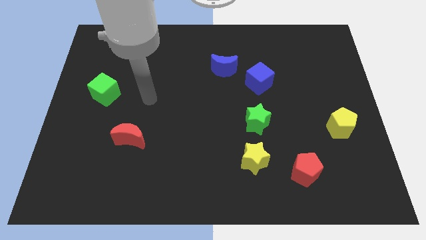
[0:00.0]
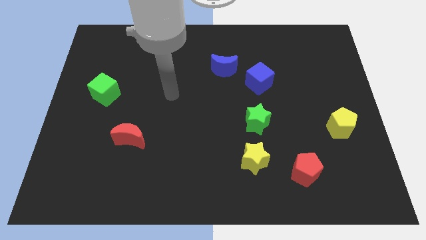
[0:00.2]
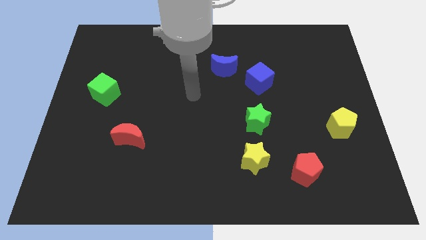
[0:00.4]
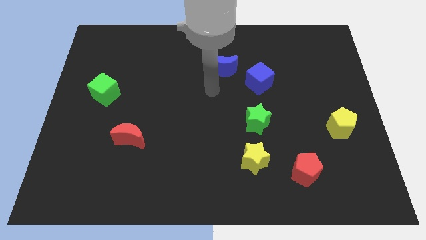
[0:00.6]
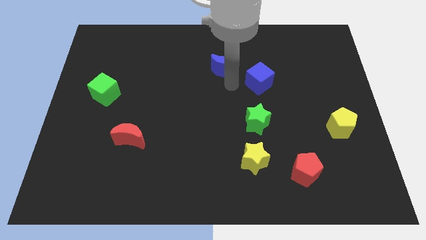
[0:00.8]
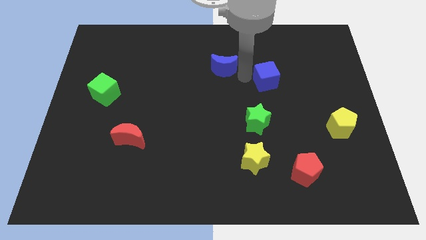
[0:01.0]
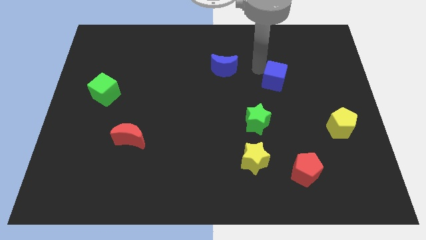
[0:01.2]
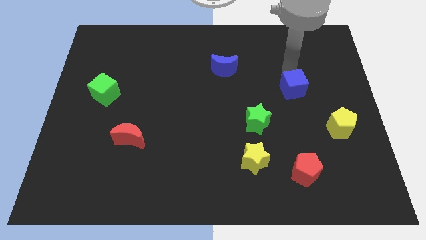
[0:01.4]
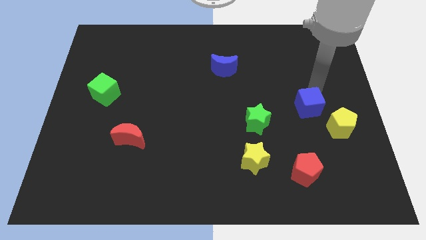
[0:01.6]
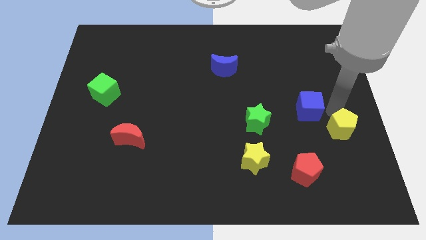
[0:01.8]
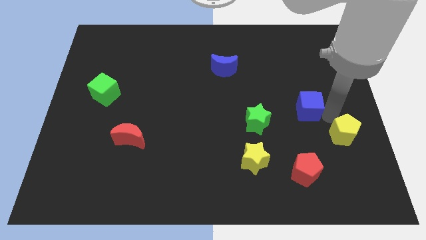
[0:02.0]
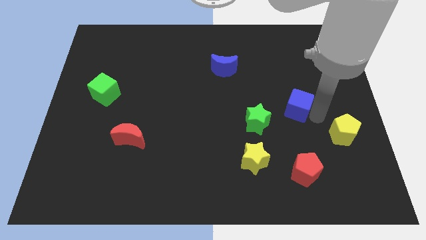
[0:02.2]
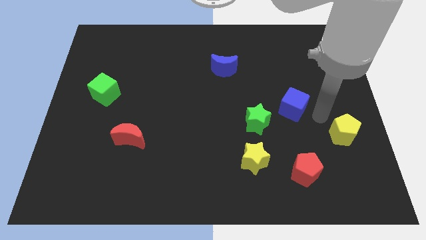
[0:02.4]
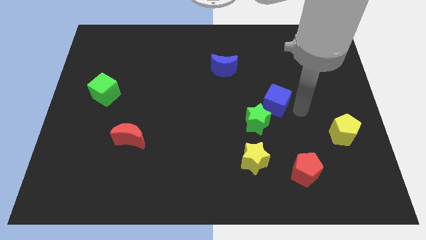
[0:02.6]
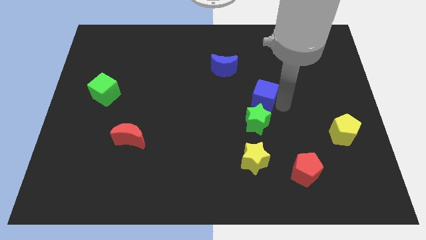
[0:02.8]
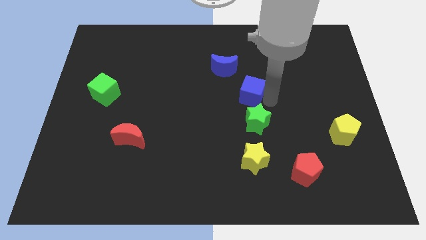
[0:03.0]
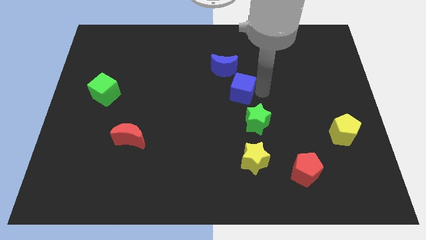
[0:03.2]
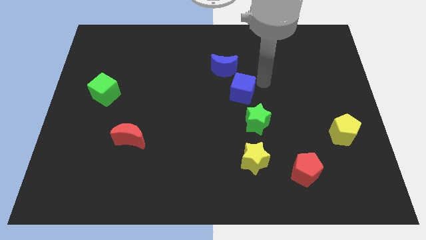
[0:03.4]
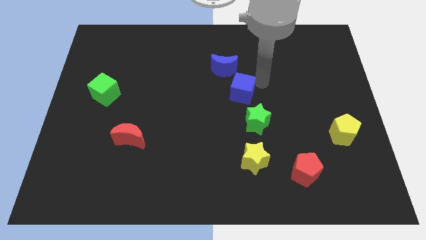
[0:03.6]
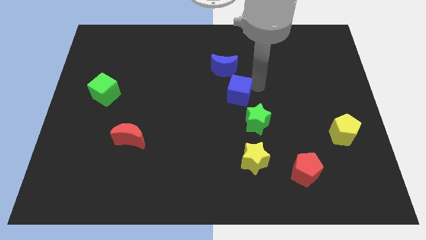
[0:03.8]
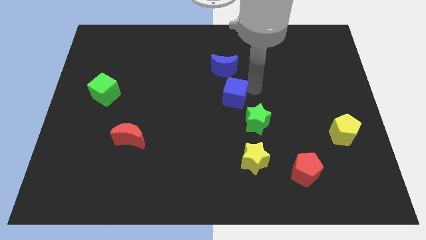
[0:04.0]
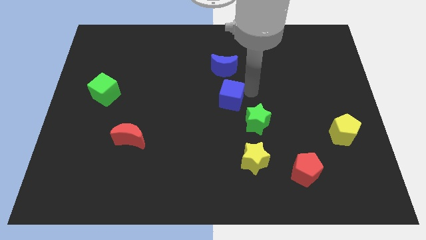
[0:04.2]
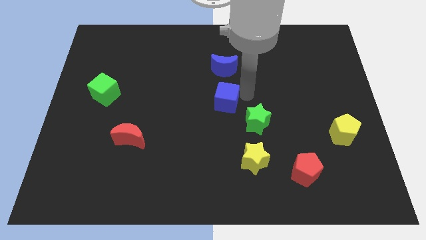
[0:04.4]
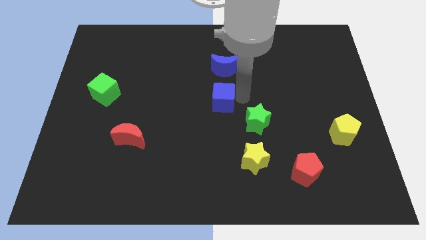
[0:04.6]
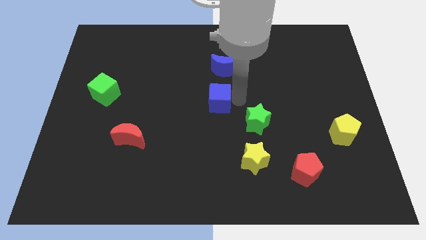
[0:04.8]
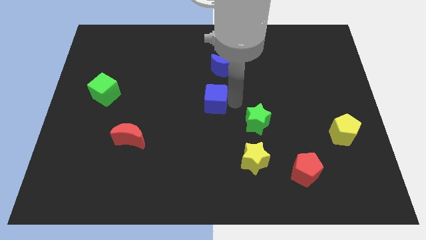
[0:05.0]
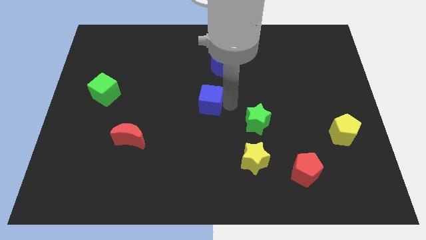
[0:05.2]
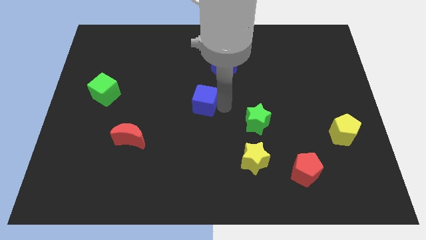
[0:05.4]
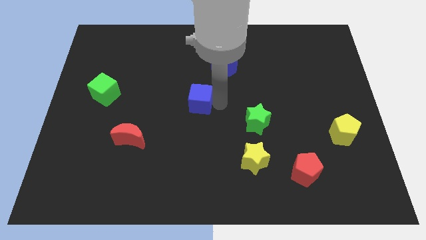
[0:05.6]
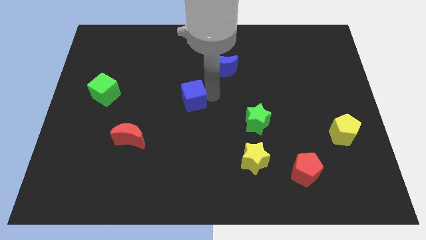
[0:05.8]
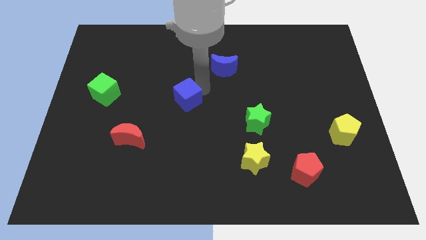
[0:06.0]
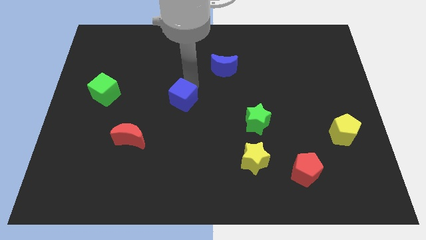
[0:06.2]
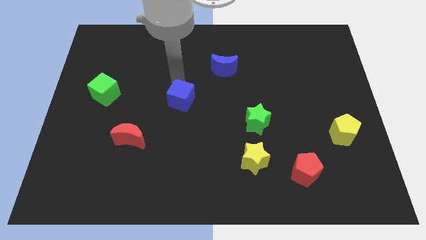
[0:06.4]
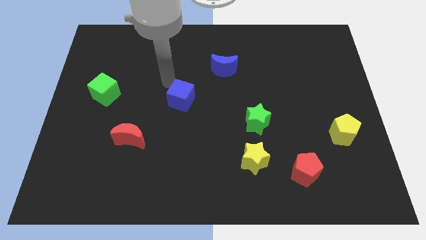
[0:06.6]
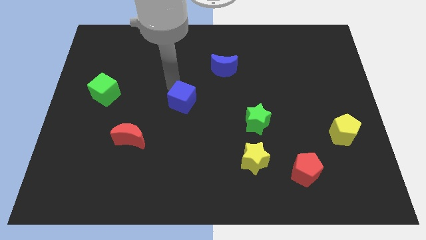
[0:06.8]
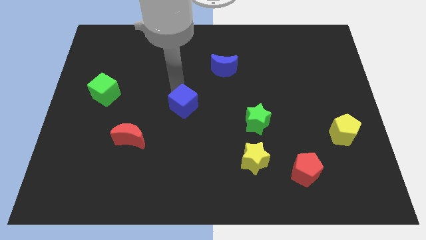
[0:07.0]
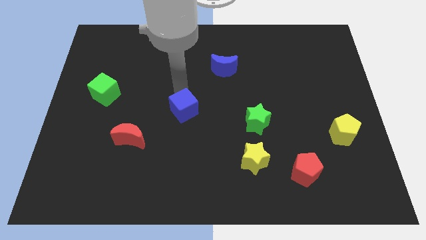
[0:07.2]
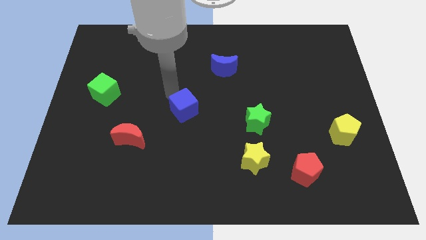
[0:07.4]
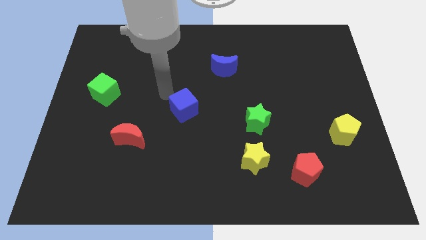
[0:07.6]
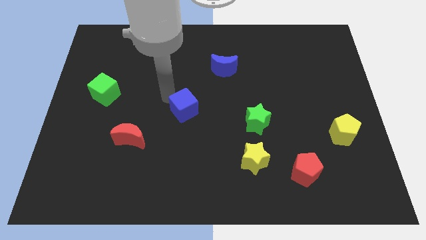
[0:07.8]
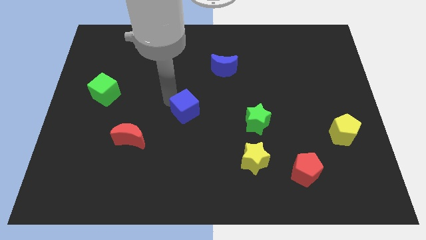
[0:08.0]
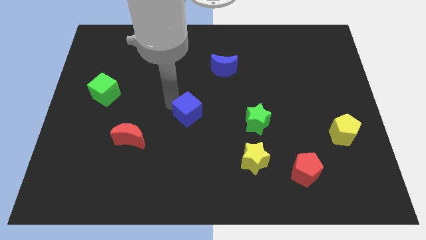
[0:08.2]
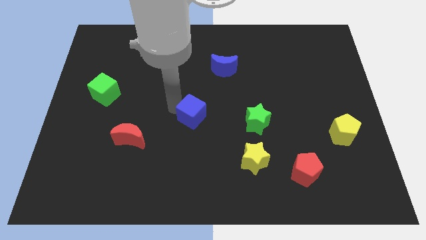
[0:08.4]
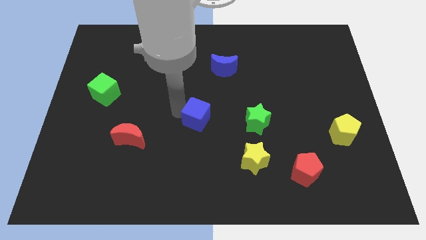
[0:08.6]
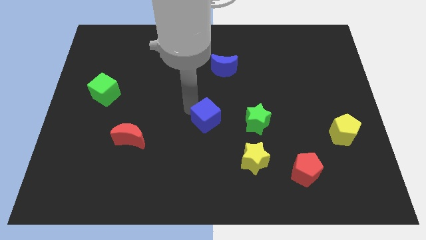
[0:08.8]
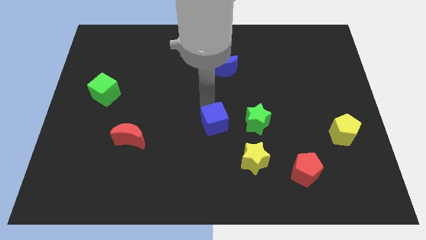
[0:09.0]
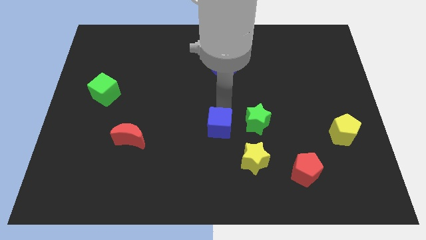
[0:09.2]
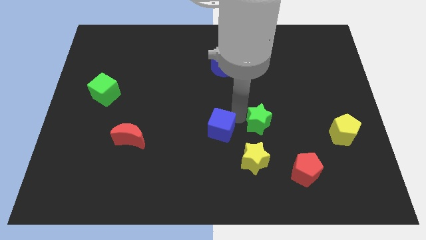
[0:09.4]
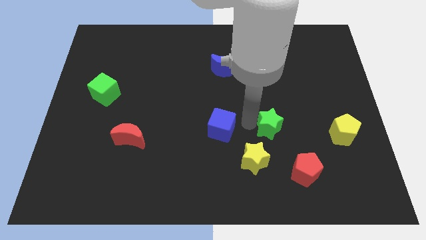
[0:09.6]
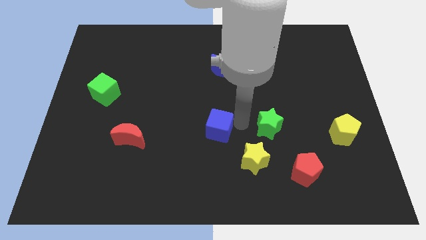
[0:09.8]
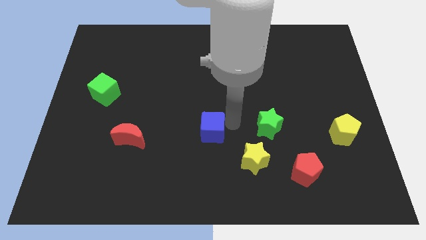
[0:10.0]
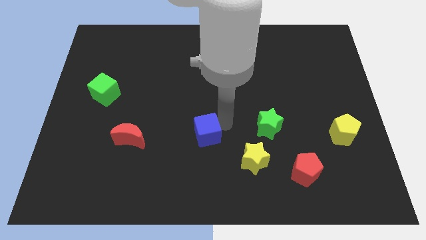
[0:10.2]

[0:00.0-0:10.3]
move the blue cube down and then to the left

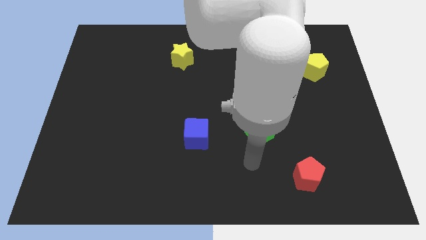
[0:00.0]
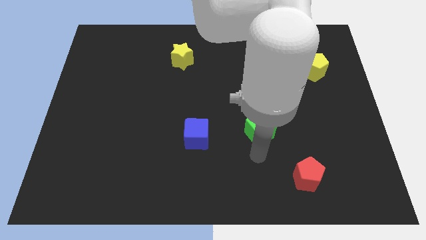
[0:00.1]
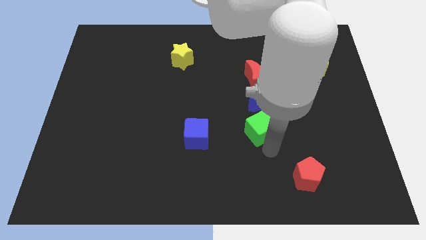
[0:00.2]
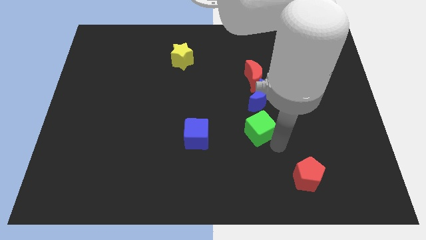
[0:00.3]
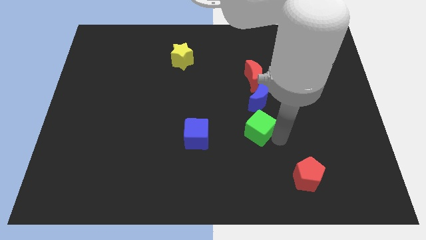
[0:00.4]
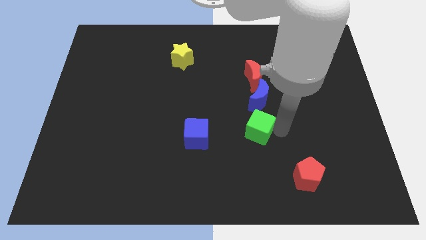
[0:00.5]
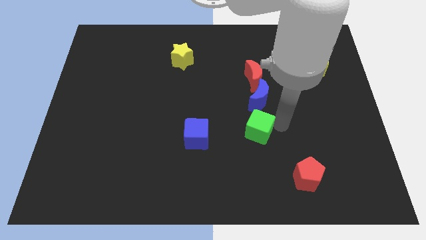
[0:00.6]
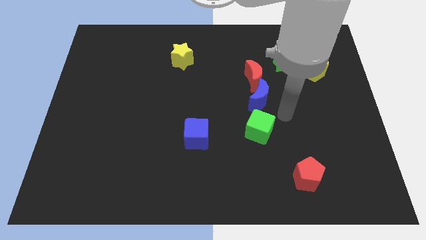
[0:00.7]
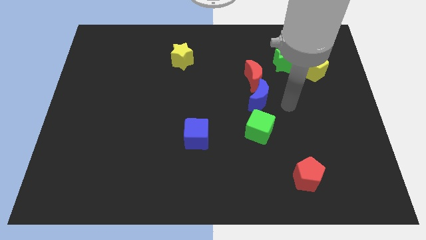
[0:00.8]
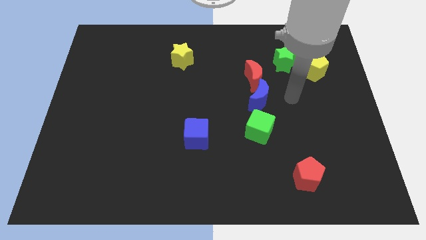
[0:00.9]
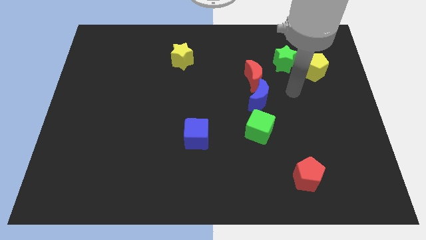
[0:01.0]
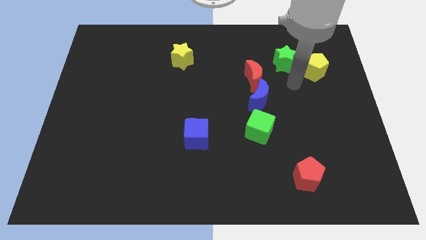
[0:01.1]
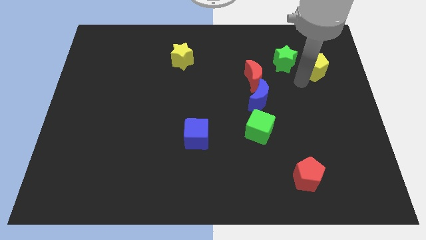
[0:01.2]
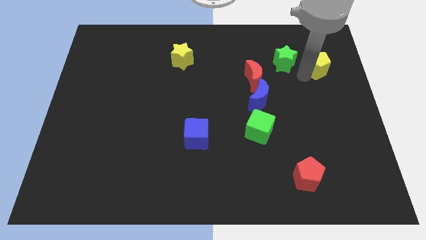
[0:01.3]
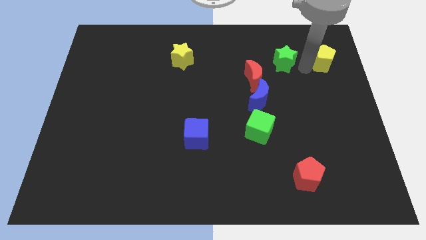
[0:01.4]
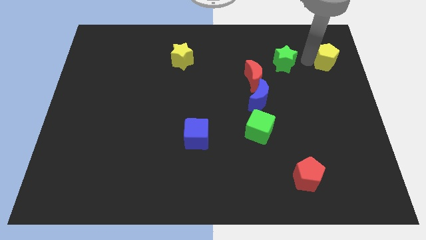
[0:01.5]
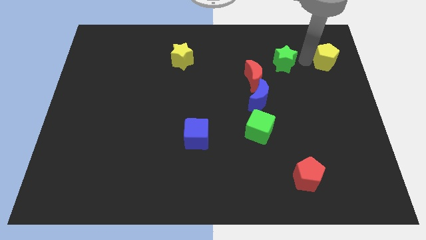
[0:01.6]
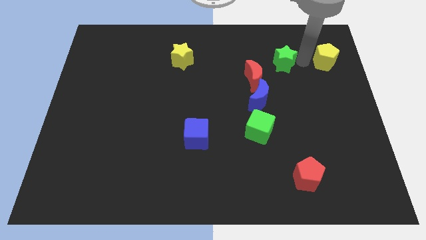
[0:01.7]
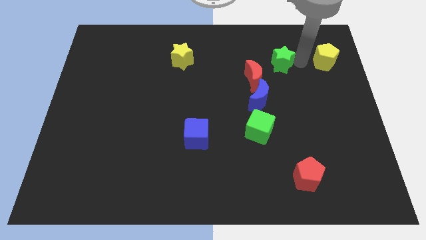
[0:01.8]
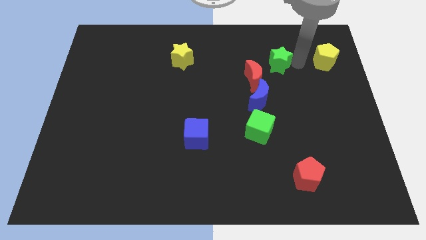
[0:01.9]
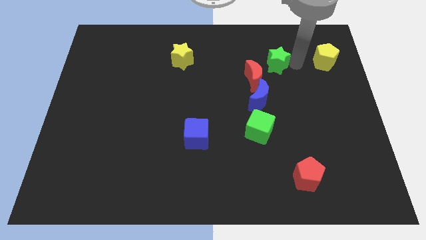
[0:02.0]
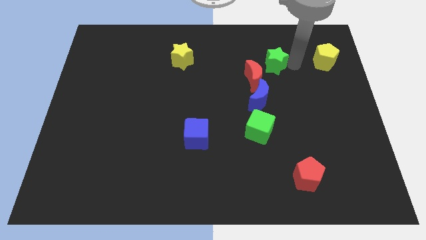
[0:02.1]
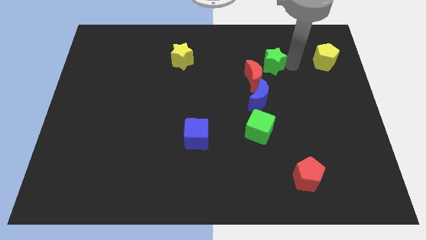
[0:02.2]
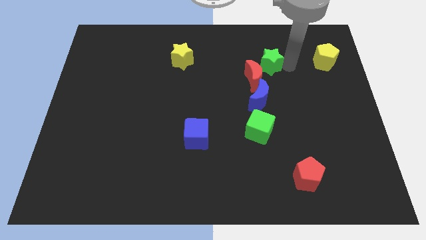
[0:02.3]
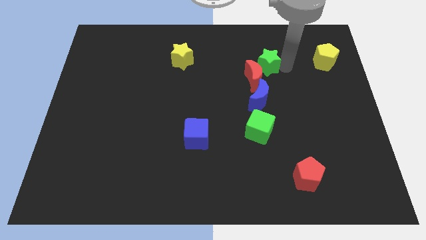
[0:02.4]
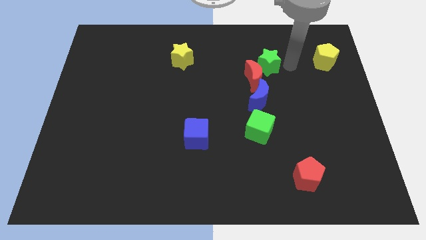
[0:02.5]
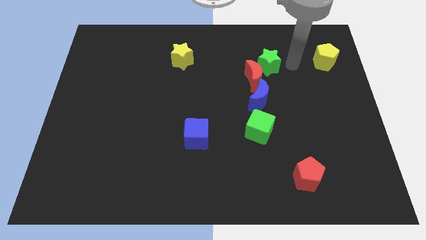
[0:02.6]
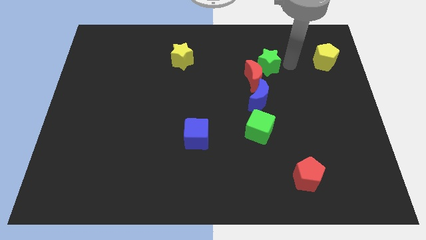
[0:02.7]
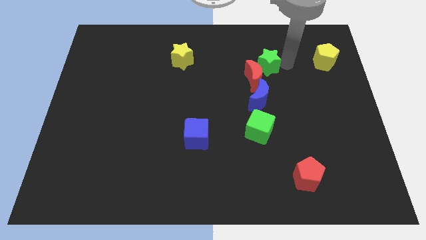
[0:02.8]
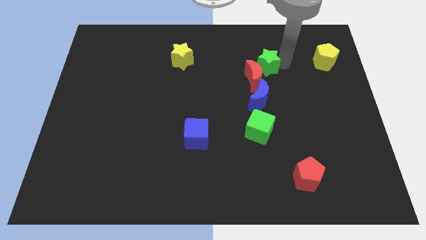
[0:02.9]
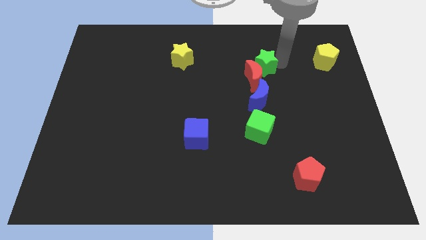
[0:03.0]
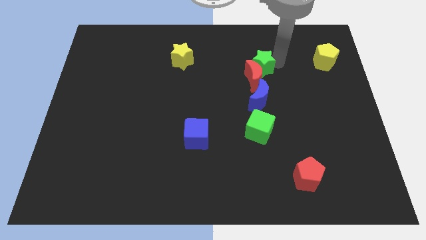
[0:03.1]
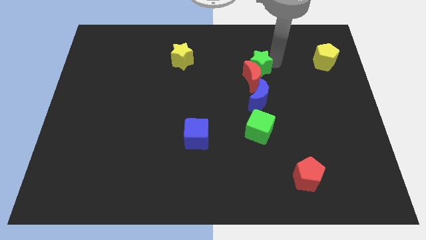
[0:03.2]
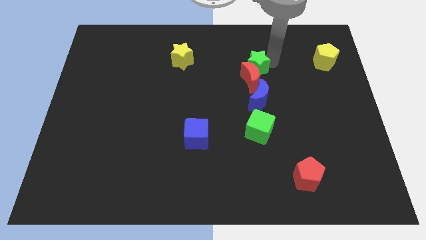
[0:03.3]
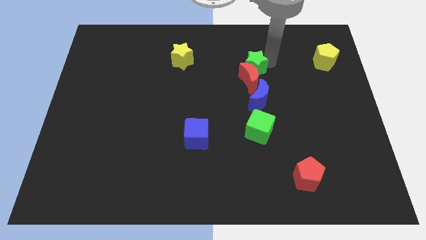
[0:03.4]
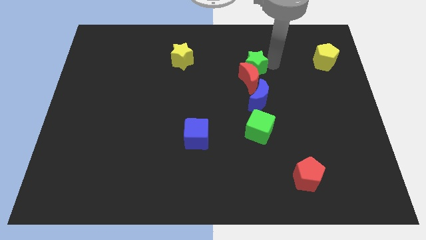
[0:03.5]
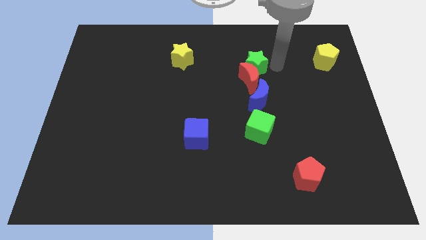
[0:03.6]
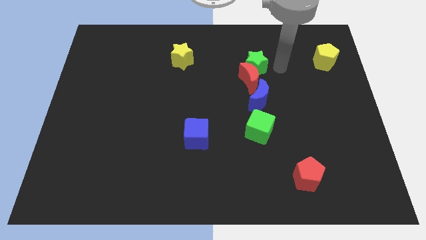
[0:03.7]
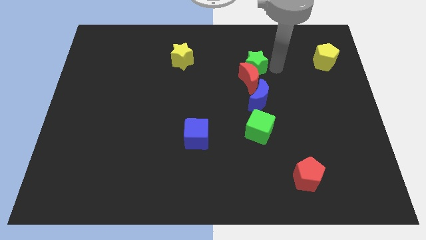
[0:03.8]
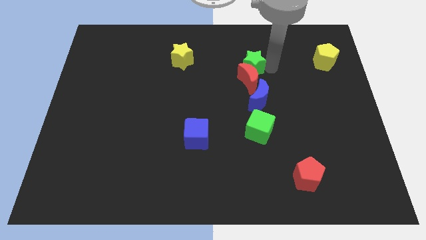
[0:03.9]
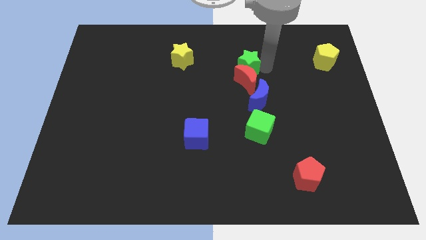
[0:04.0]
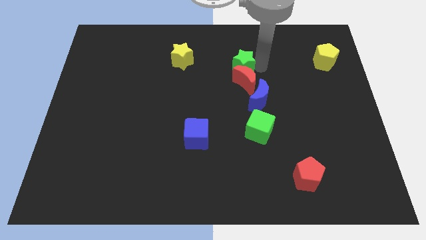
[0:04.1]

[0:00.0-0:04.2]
move the green star diagonally downwards and to the left somewhat
